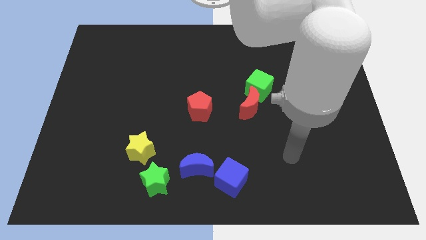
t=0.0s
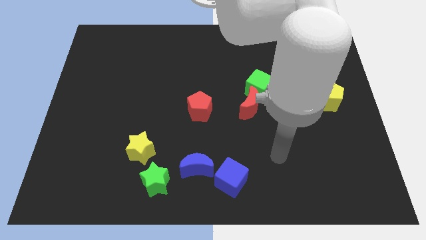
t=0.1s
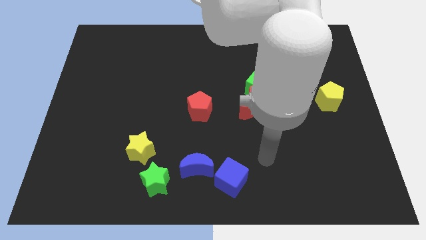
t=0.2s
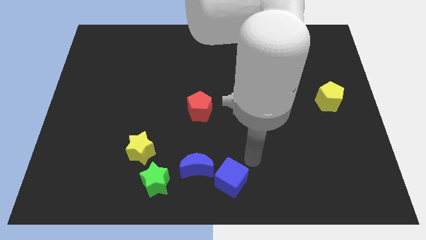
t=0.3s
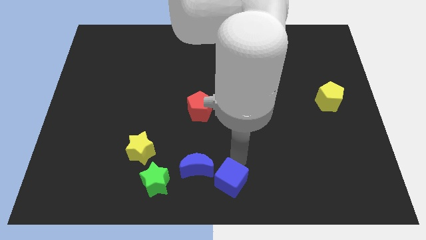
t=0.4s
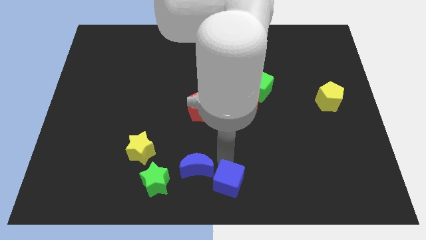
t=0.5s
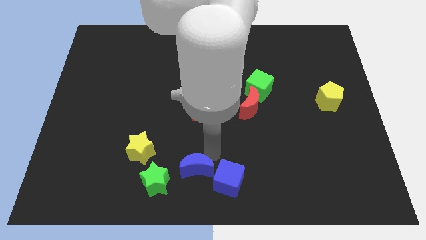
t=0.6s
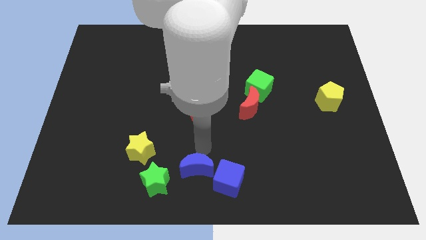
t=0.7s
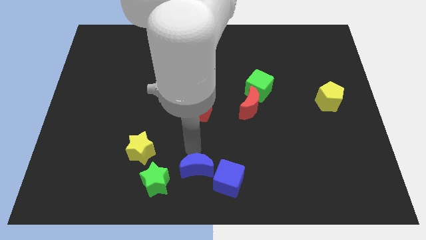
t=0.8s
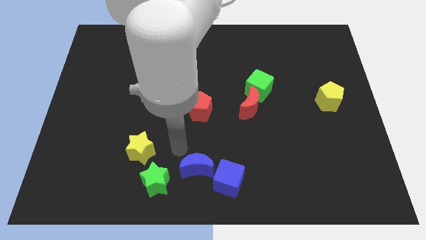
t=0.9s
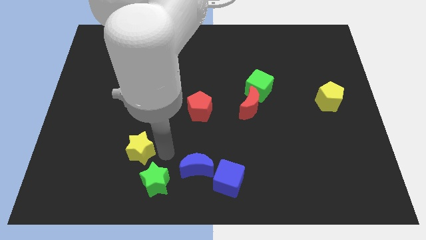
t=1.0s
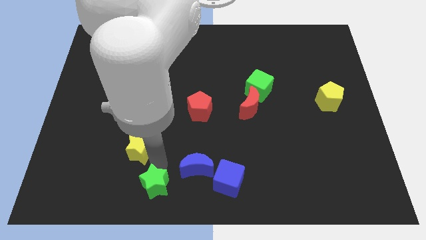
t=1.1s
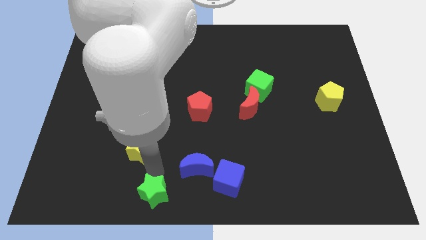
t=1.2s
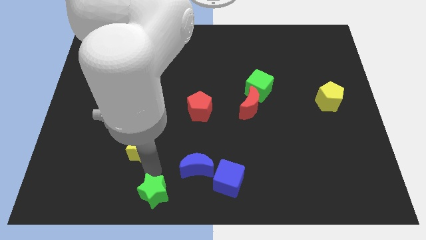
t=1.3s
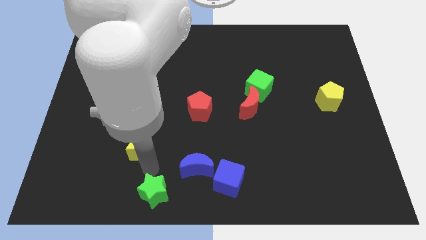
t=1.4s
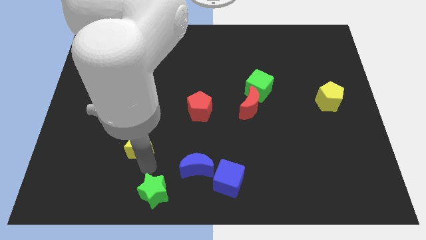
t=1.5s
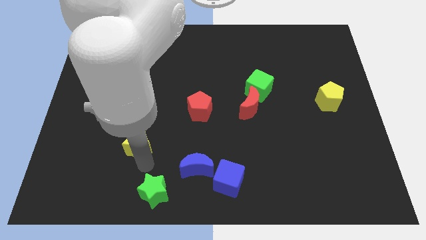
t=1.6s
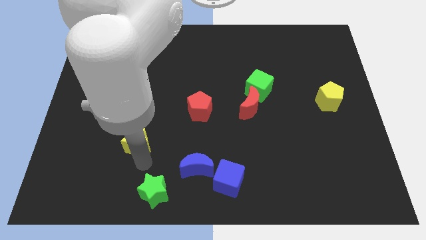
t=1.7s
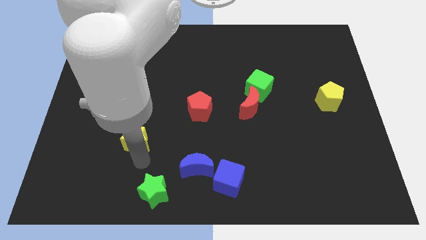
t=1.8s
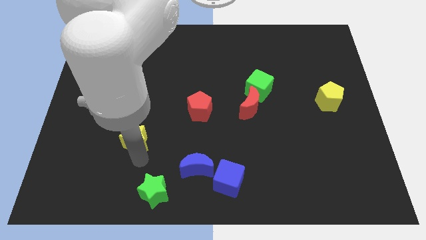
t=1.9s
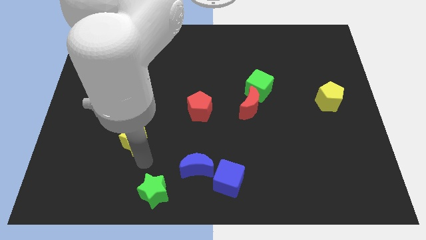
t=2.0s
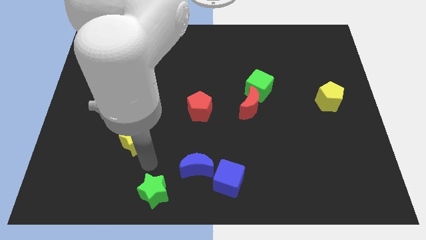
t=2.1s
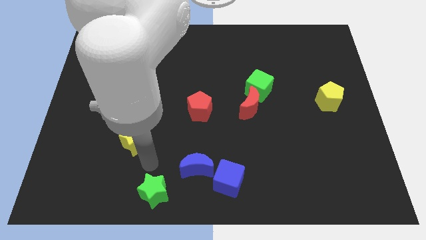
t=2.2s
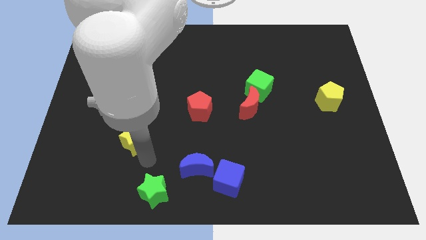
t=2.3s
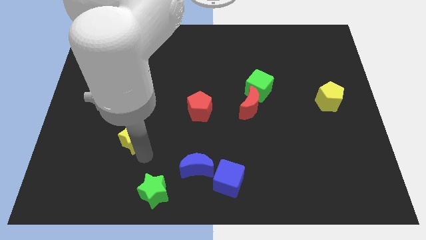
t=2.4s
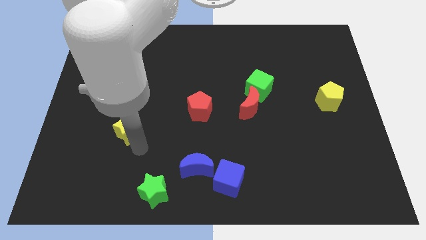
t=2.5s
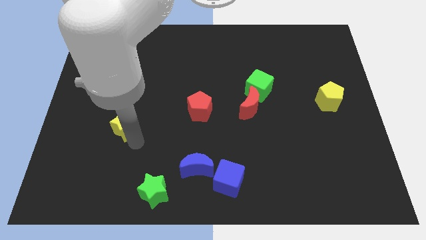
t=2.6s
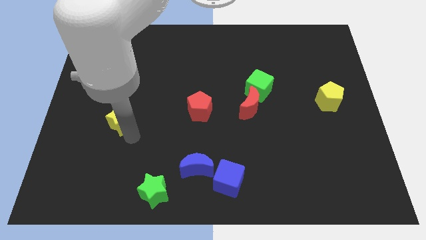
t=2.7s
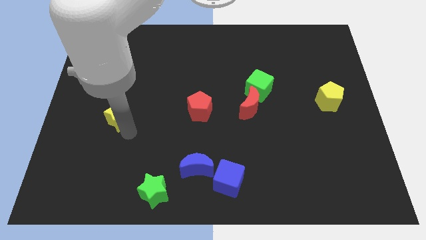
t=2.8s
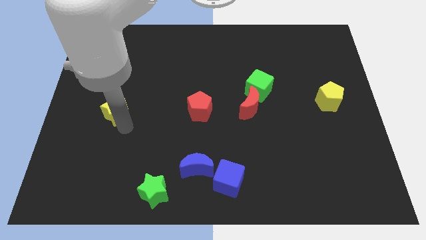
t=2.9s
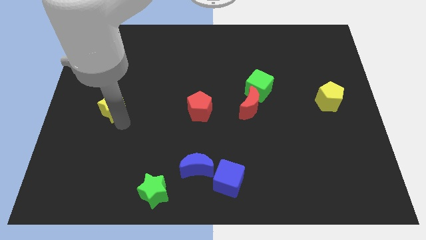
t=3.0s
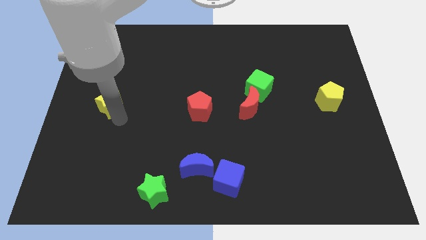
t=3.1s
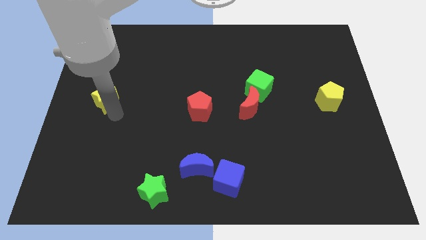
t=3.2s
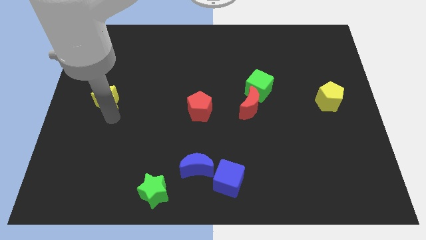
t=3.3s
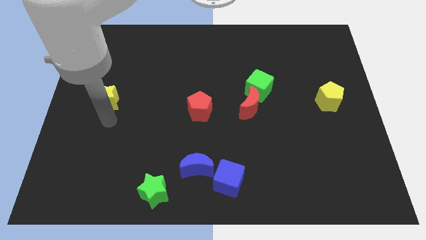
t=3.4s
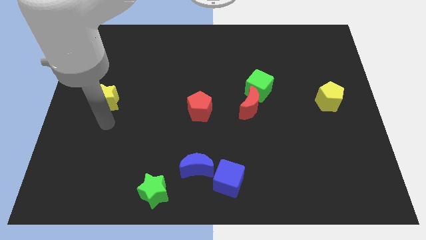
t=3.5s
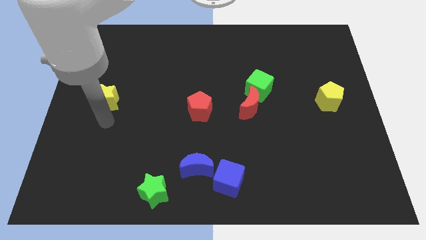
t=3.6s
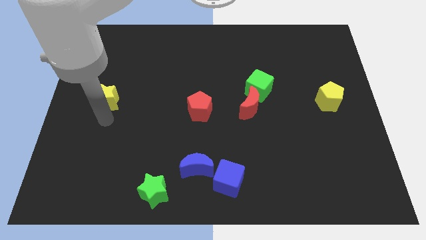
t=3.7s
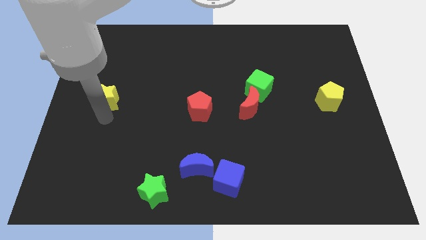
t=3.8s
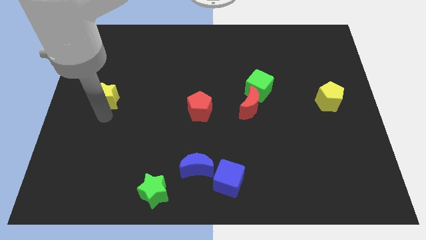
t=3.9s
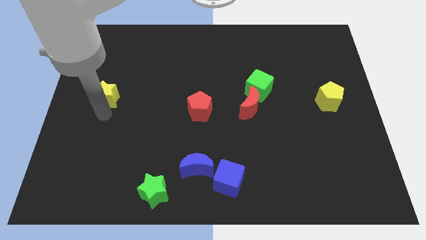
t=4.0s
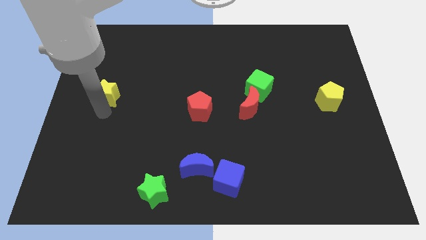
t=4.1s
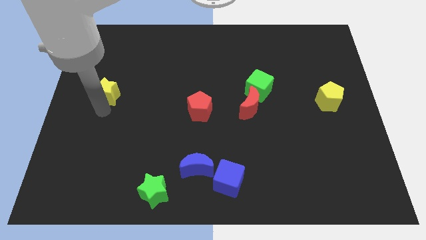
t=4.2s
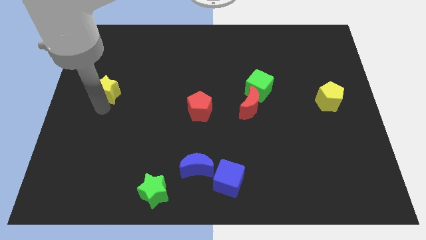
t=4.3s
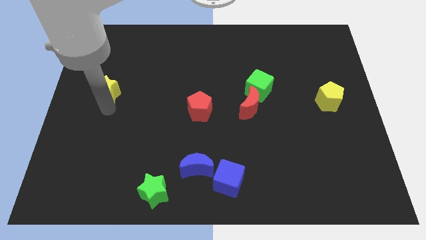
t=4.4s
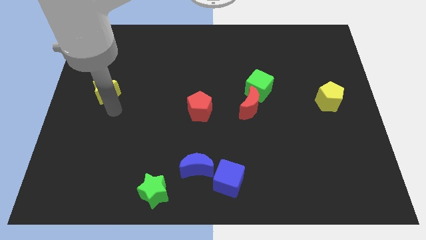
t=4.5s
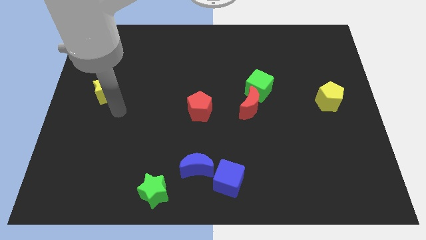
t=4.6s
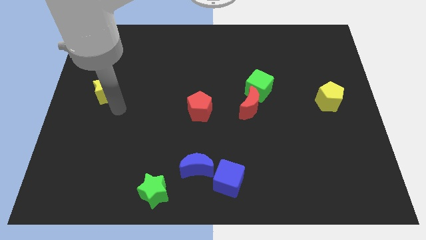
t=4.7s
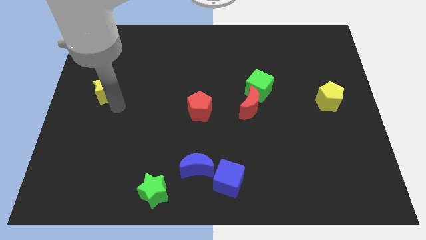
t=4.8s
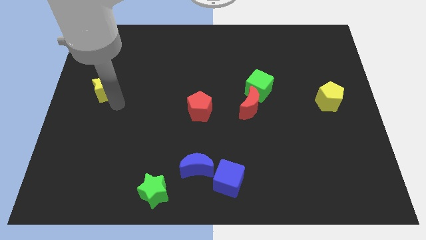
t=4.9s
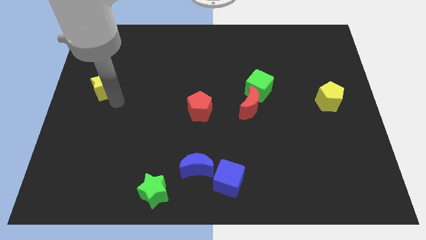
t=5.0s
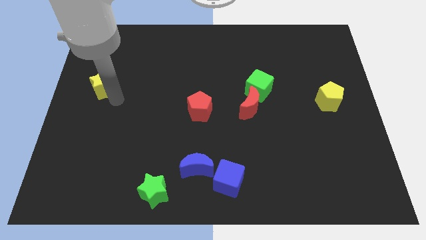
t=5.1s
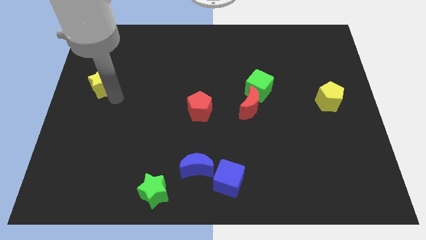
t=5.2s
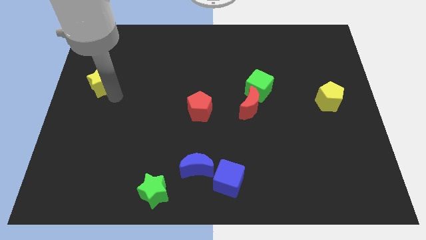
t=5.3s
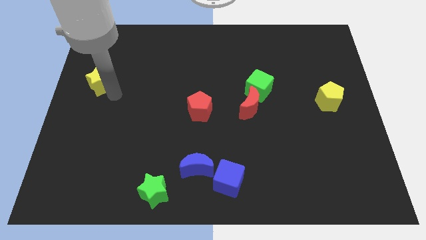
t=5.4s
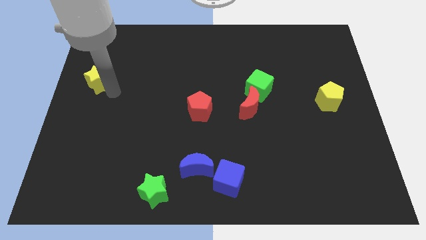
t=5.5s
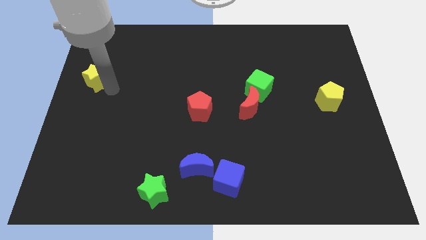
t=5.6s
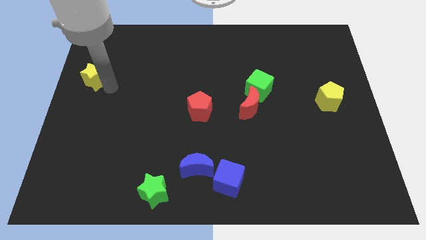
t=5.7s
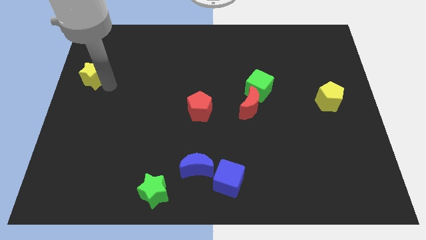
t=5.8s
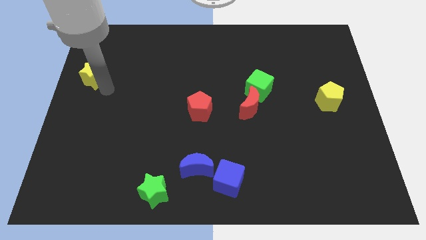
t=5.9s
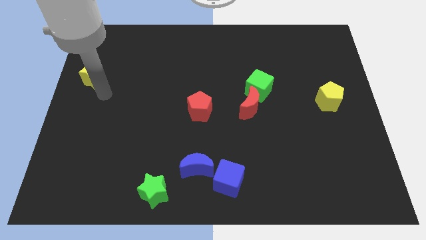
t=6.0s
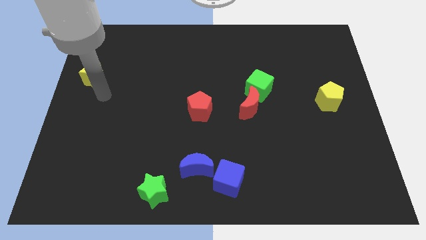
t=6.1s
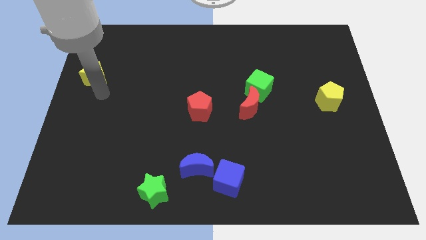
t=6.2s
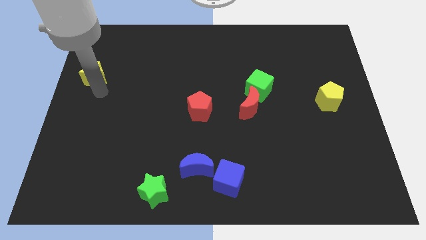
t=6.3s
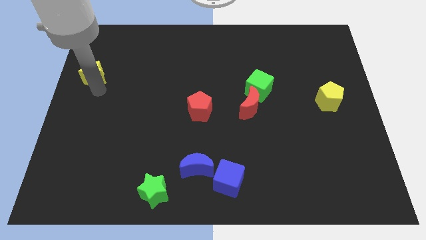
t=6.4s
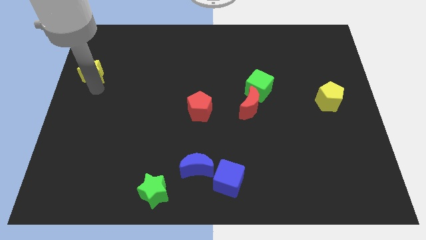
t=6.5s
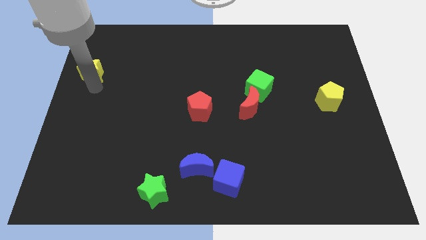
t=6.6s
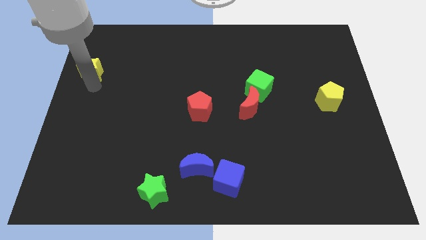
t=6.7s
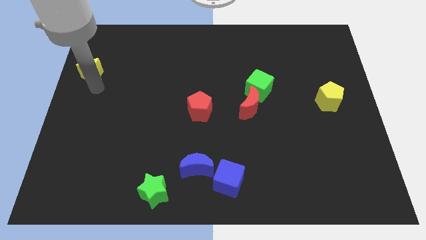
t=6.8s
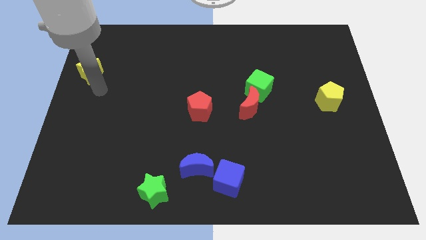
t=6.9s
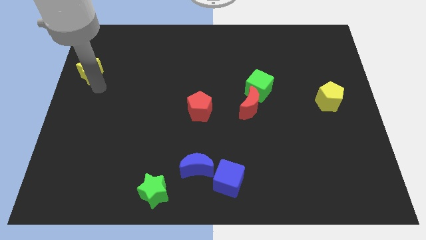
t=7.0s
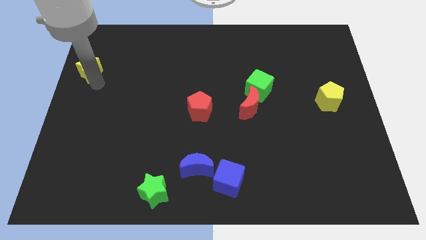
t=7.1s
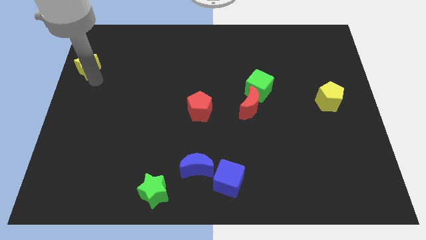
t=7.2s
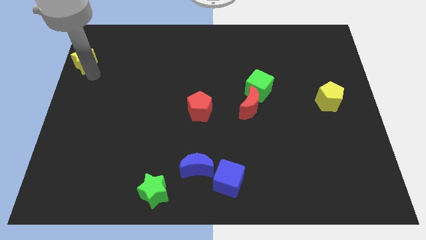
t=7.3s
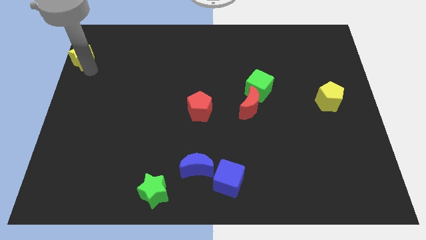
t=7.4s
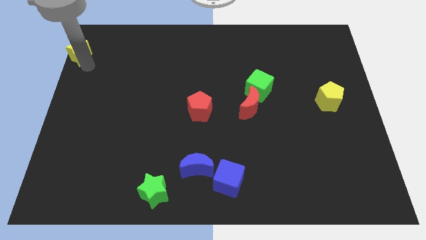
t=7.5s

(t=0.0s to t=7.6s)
push the yellow star to the top left of the board
